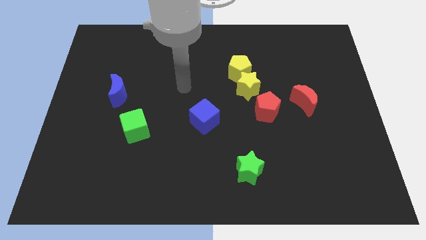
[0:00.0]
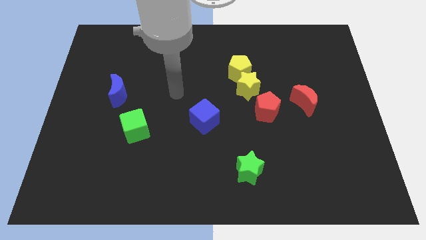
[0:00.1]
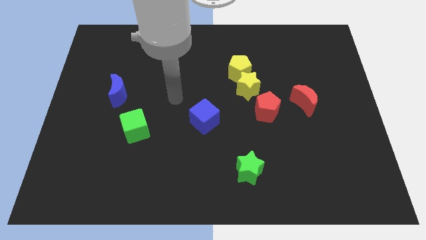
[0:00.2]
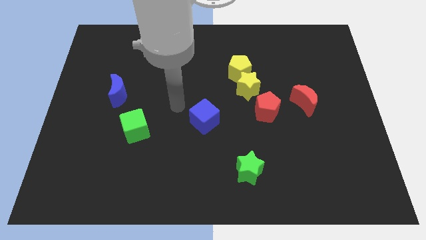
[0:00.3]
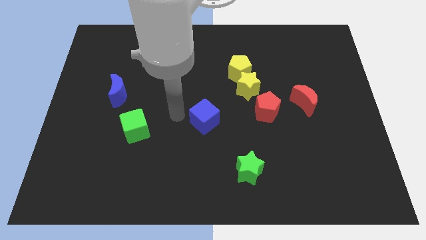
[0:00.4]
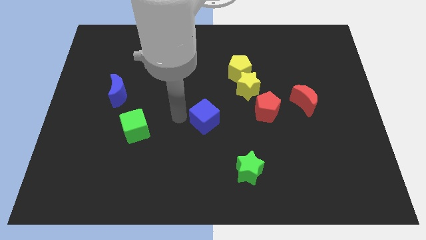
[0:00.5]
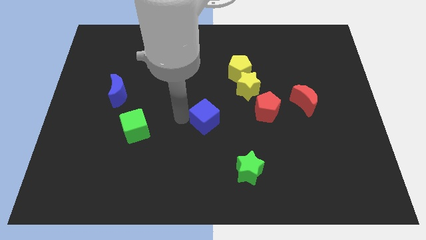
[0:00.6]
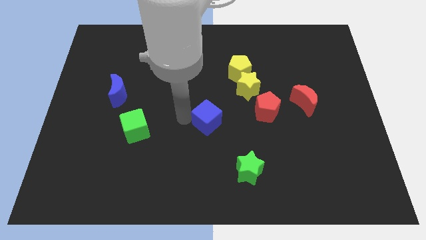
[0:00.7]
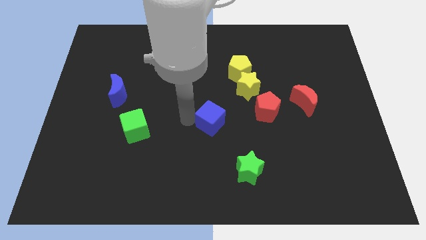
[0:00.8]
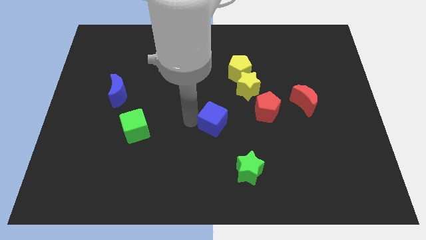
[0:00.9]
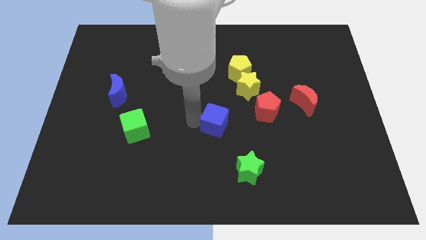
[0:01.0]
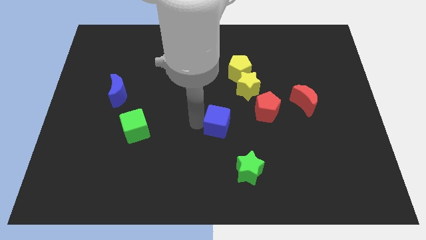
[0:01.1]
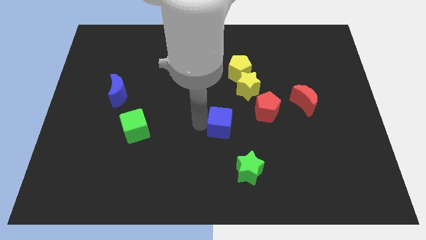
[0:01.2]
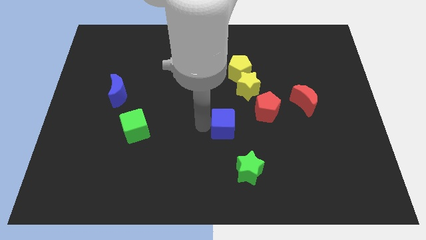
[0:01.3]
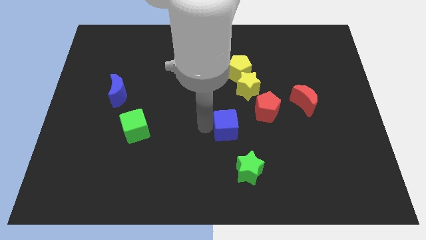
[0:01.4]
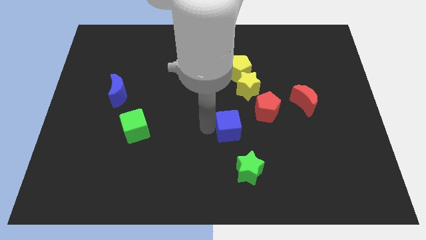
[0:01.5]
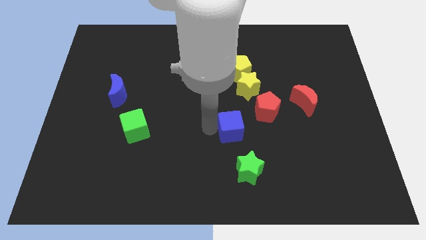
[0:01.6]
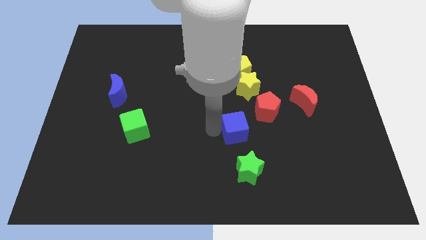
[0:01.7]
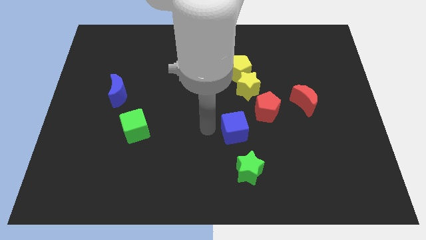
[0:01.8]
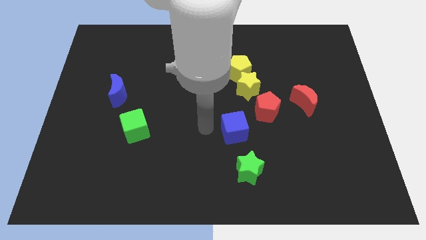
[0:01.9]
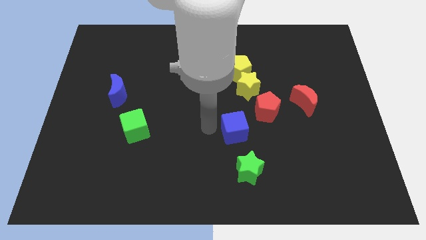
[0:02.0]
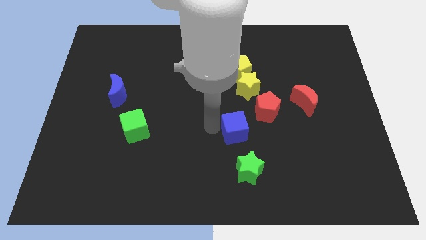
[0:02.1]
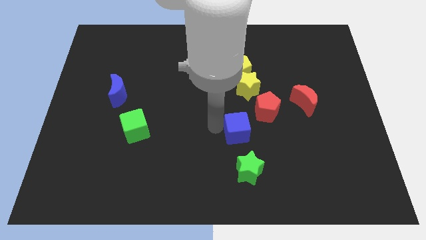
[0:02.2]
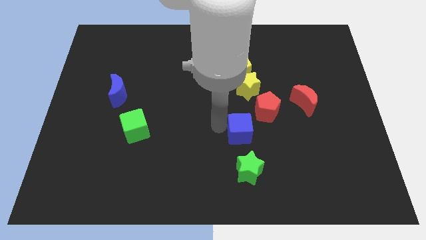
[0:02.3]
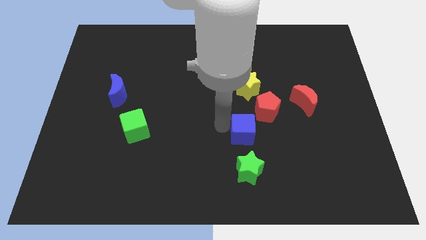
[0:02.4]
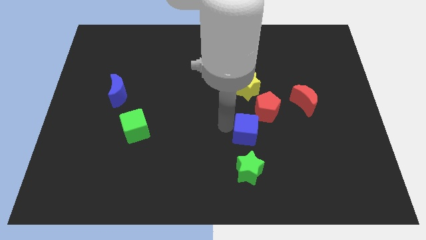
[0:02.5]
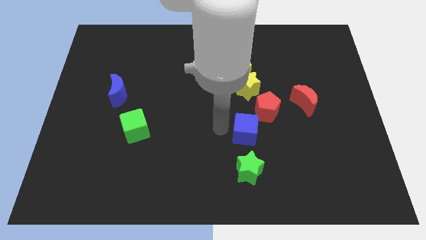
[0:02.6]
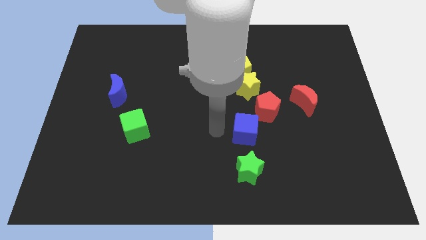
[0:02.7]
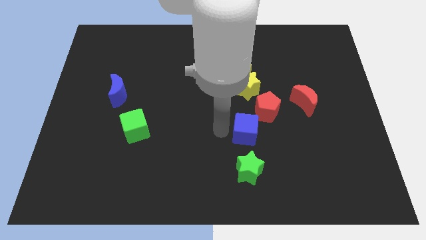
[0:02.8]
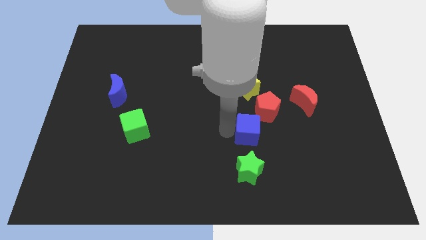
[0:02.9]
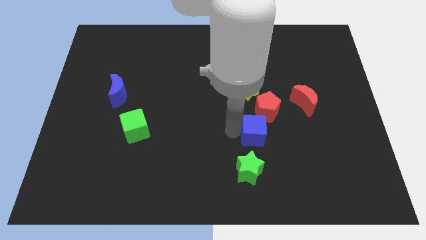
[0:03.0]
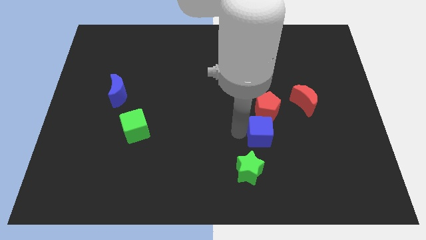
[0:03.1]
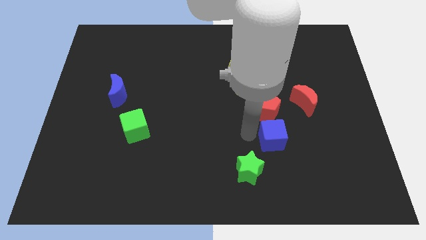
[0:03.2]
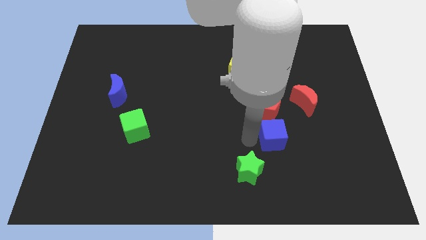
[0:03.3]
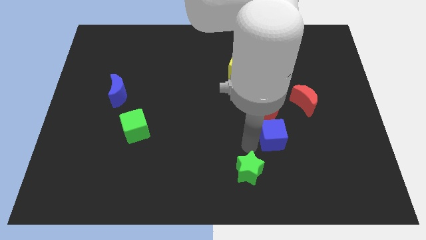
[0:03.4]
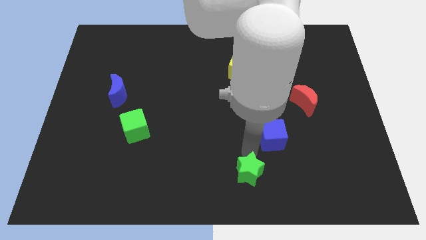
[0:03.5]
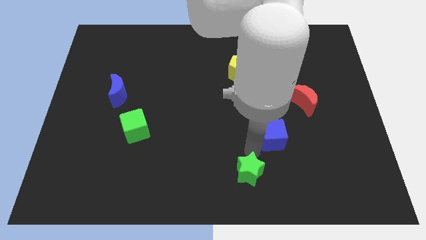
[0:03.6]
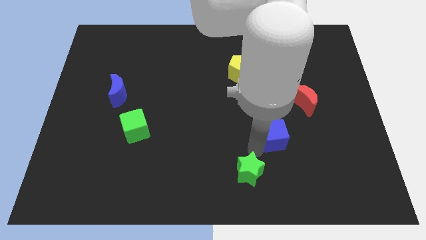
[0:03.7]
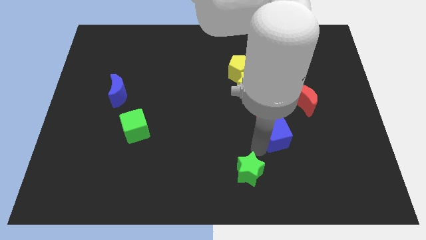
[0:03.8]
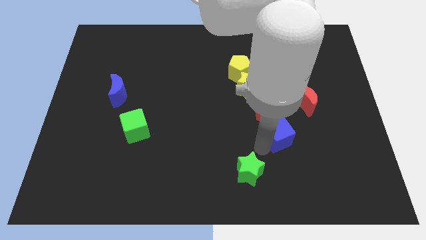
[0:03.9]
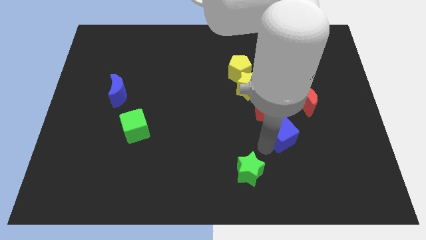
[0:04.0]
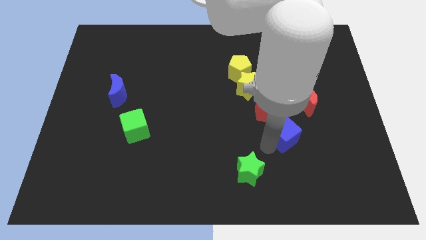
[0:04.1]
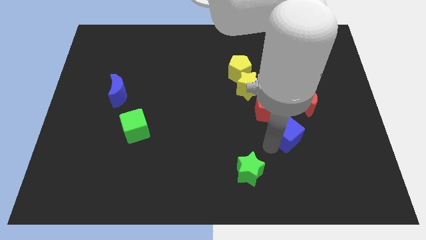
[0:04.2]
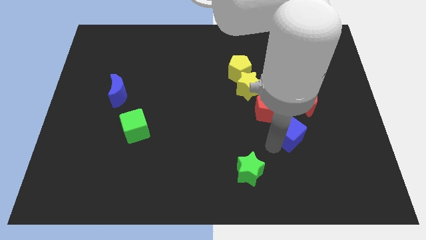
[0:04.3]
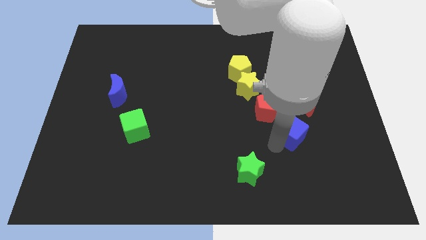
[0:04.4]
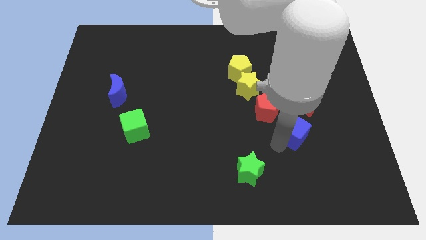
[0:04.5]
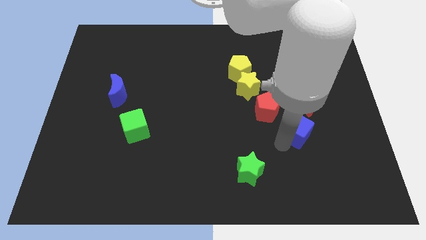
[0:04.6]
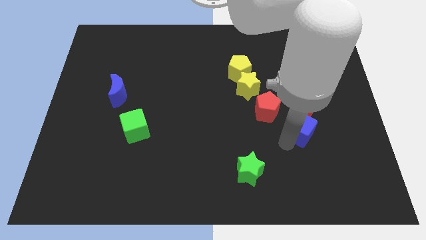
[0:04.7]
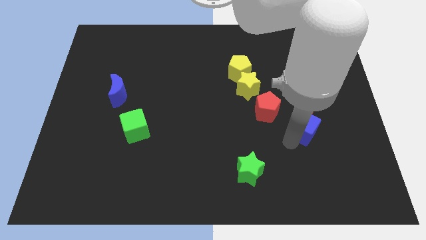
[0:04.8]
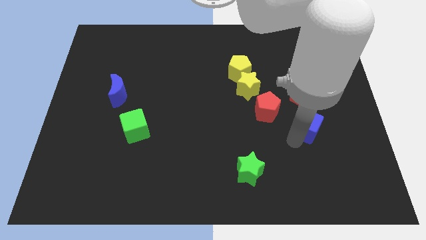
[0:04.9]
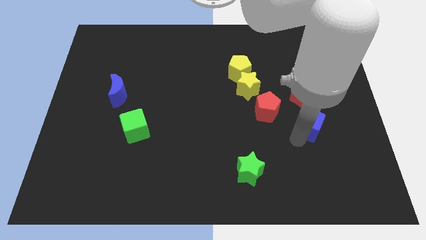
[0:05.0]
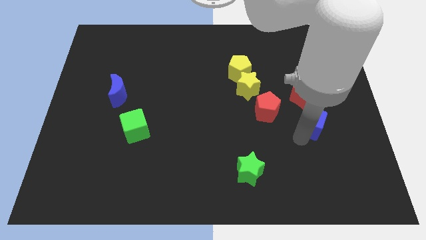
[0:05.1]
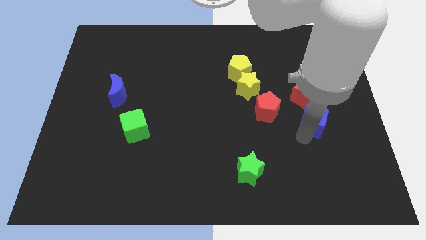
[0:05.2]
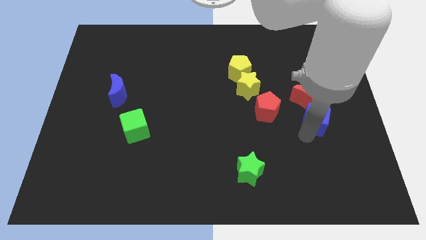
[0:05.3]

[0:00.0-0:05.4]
move the blue cube to the red moon
